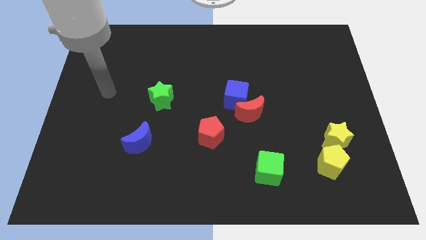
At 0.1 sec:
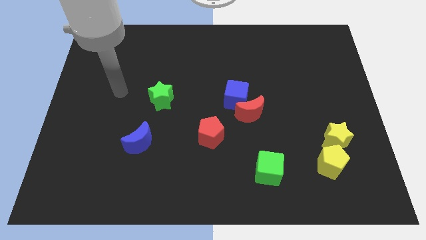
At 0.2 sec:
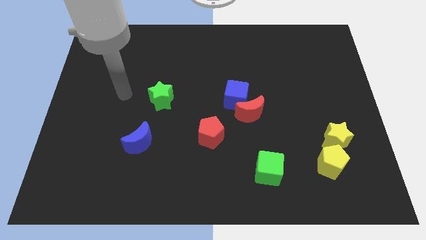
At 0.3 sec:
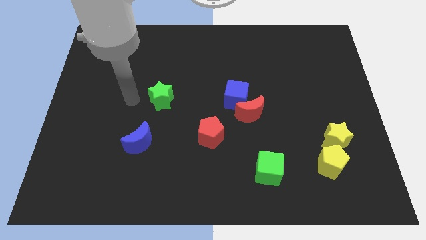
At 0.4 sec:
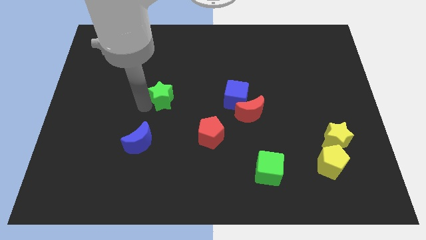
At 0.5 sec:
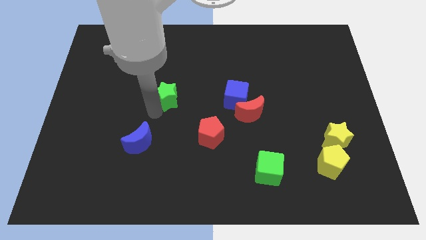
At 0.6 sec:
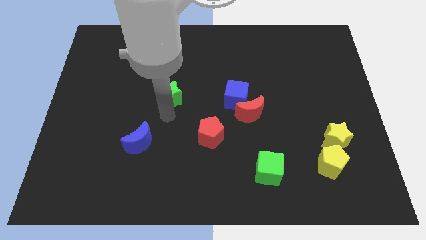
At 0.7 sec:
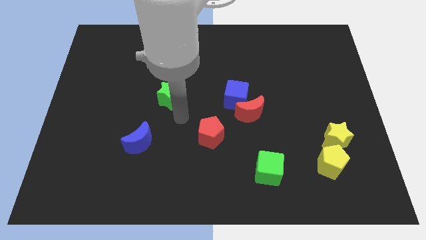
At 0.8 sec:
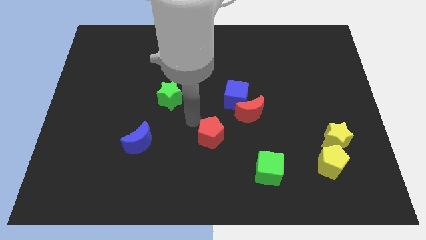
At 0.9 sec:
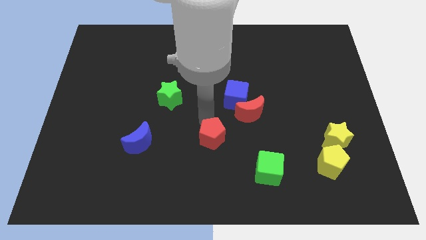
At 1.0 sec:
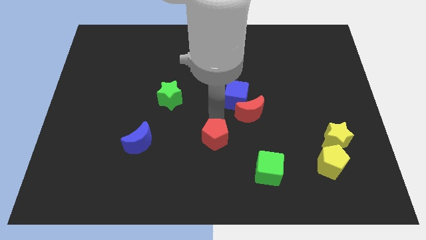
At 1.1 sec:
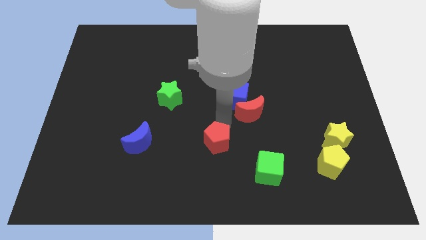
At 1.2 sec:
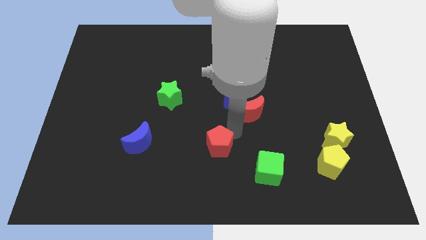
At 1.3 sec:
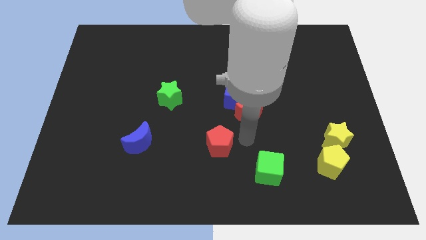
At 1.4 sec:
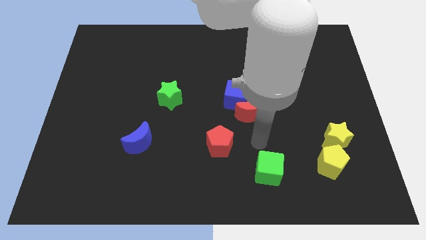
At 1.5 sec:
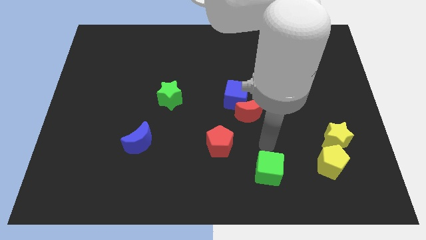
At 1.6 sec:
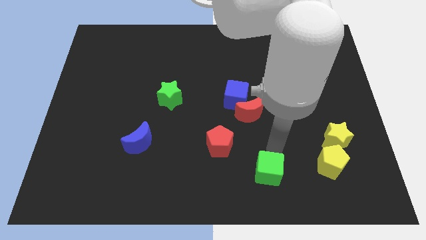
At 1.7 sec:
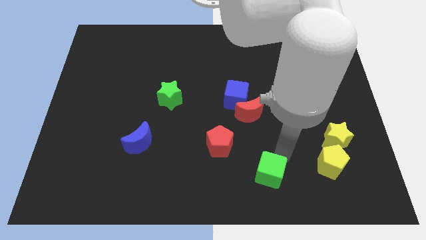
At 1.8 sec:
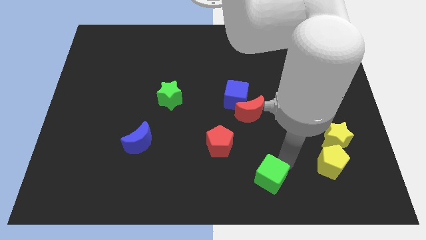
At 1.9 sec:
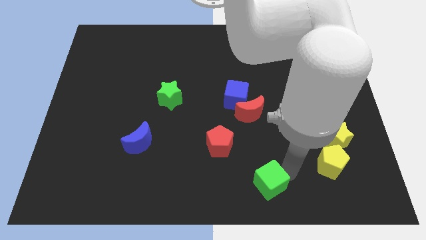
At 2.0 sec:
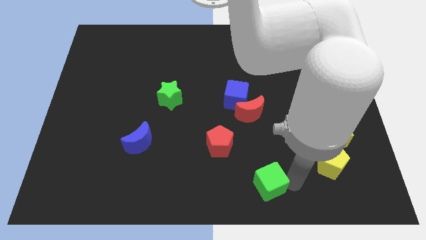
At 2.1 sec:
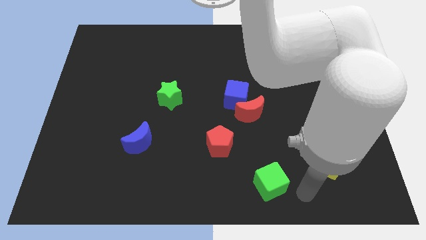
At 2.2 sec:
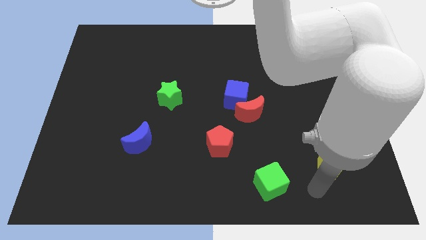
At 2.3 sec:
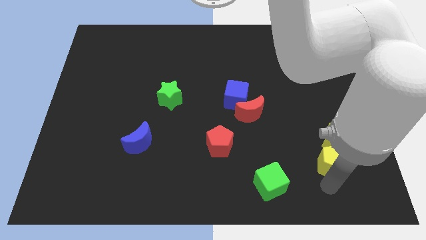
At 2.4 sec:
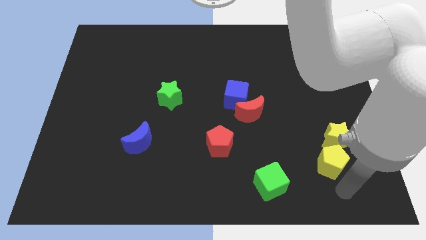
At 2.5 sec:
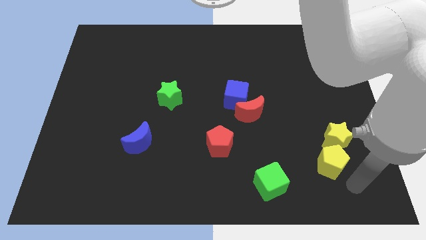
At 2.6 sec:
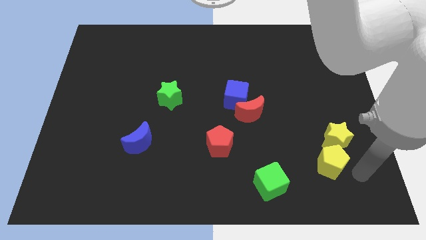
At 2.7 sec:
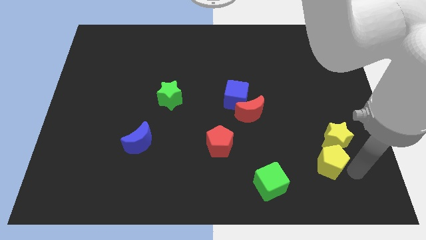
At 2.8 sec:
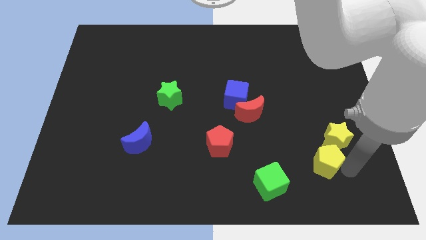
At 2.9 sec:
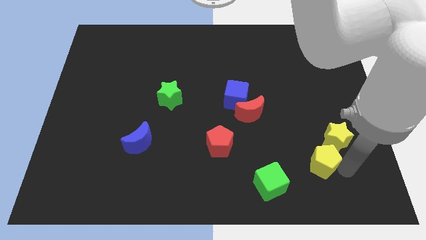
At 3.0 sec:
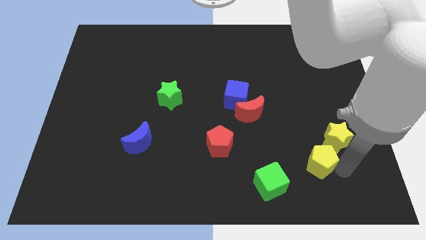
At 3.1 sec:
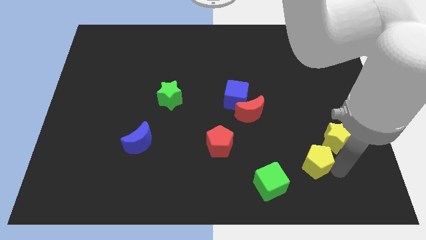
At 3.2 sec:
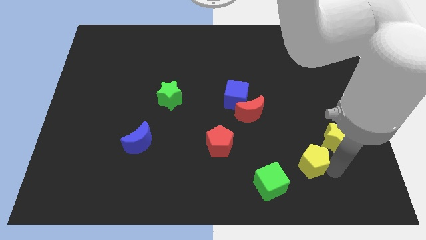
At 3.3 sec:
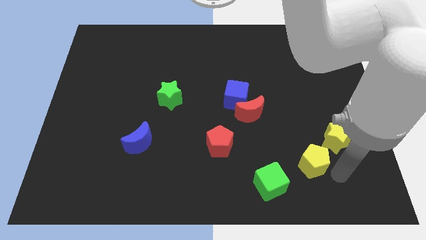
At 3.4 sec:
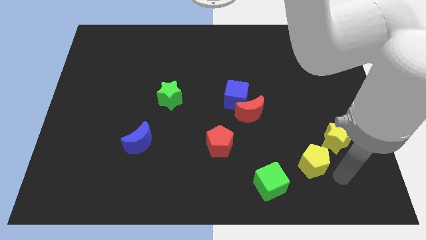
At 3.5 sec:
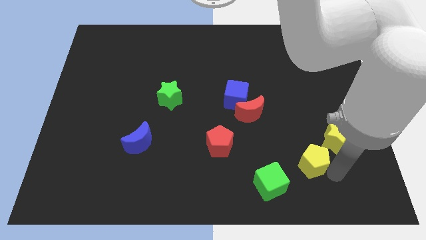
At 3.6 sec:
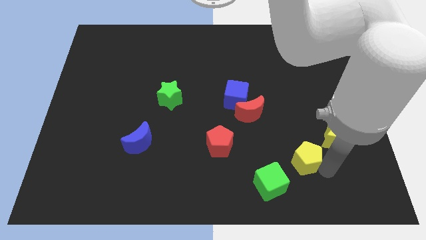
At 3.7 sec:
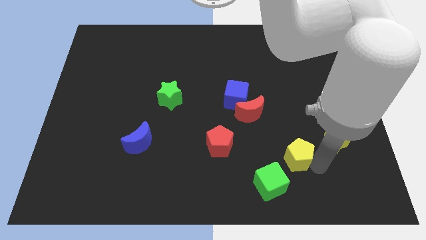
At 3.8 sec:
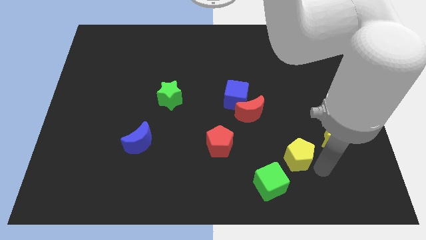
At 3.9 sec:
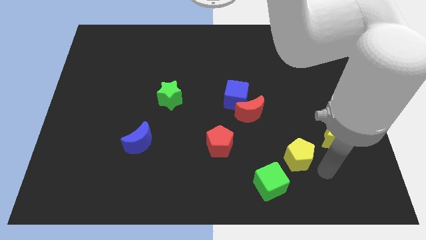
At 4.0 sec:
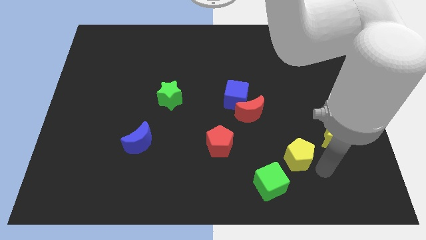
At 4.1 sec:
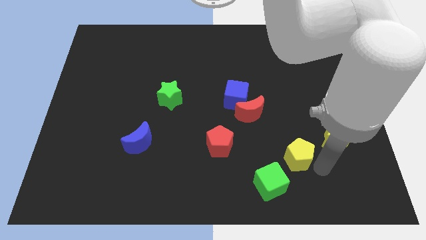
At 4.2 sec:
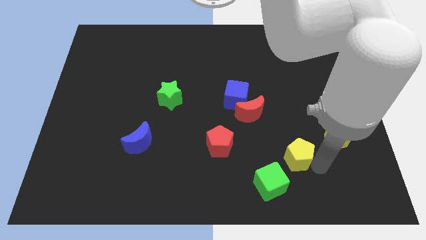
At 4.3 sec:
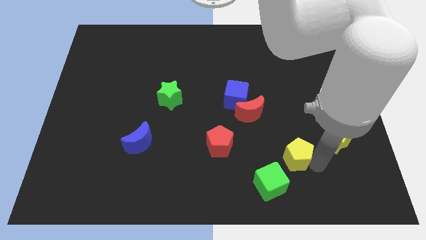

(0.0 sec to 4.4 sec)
slide the yellow pentagon slightly to the left

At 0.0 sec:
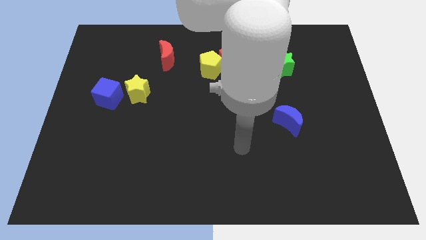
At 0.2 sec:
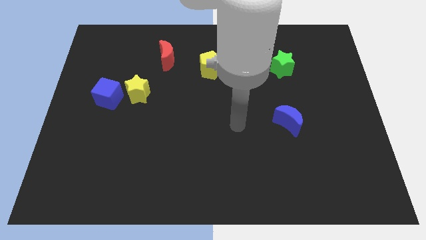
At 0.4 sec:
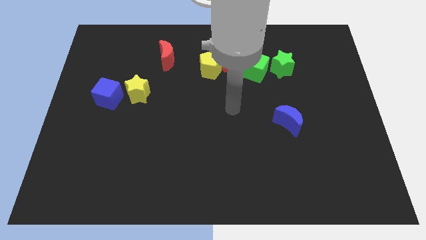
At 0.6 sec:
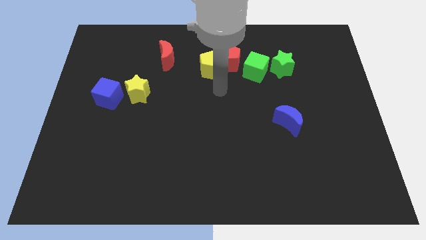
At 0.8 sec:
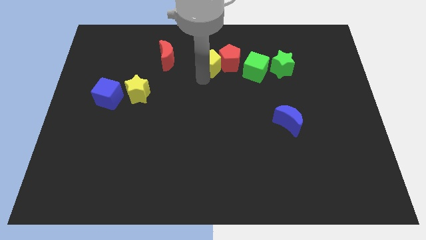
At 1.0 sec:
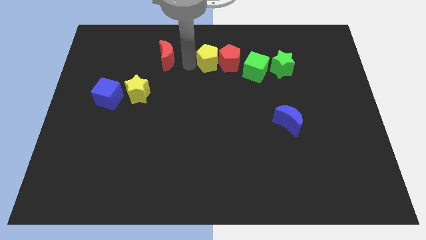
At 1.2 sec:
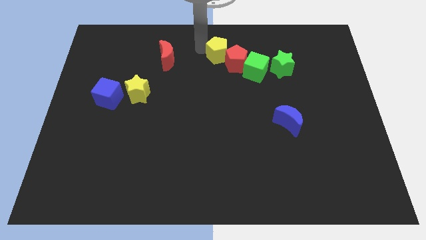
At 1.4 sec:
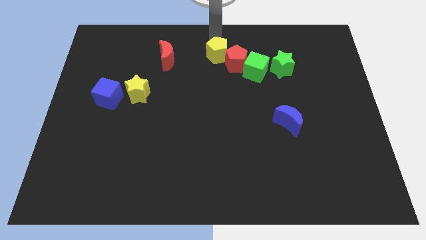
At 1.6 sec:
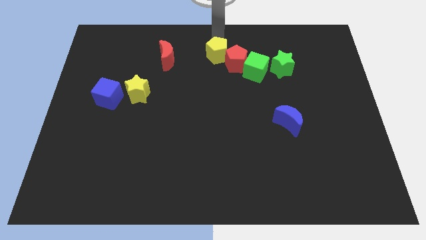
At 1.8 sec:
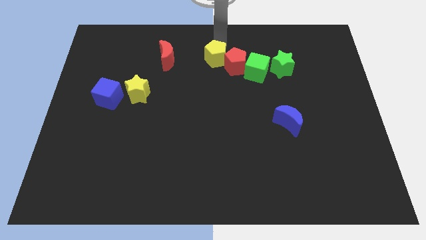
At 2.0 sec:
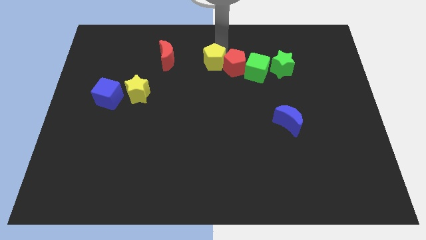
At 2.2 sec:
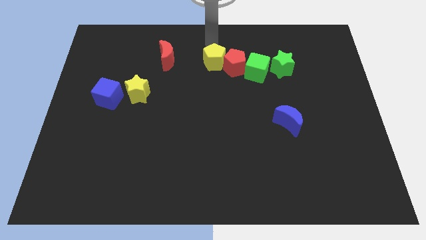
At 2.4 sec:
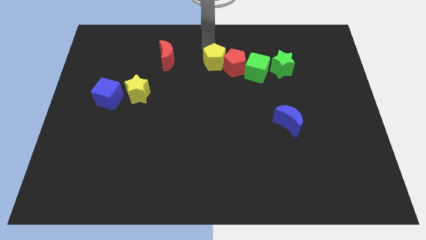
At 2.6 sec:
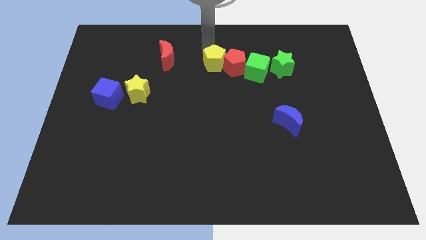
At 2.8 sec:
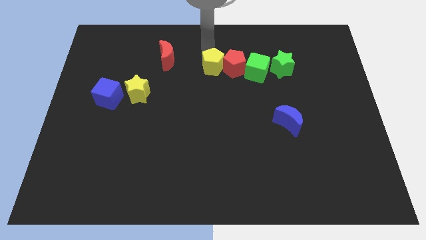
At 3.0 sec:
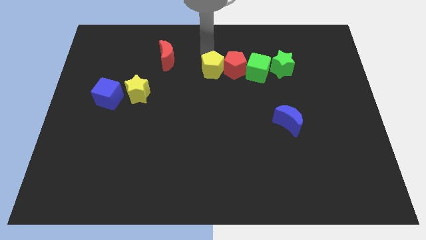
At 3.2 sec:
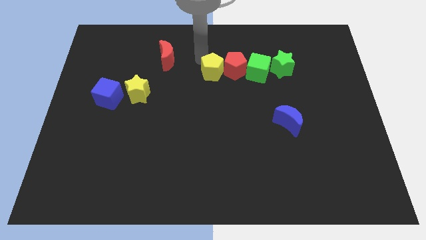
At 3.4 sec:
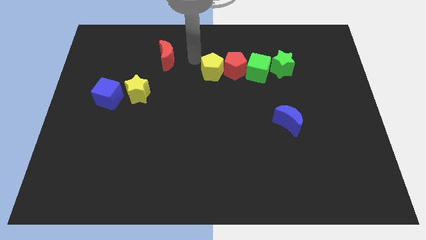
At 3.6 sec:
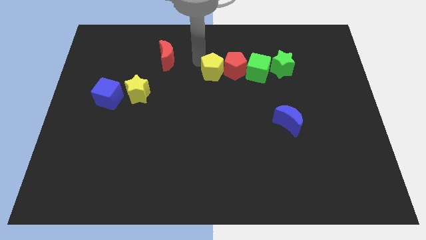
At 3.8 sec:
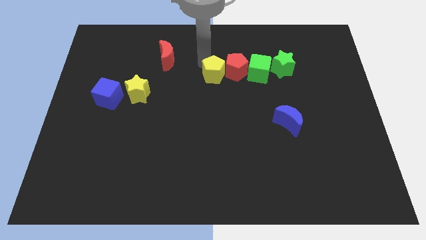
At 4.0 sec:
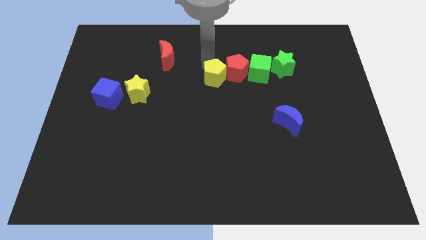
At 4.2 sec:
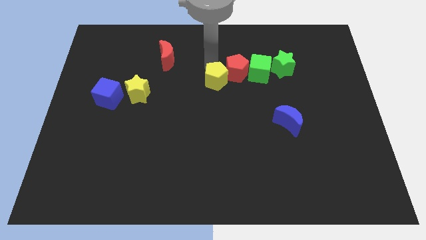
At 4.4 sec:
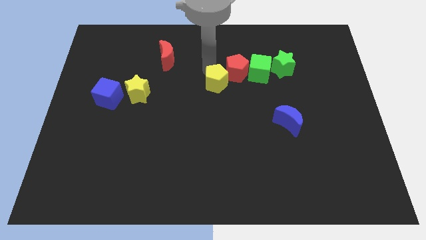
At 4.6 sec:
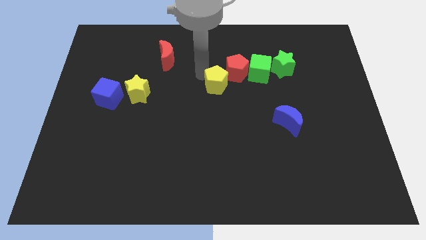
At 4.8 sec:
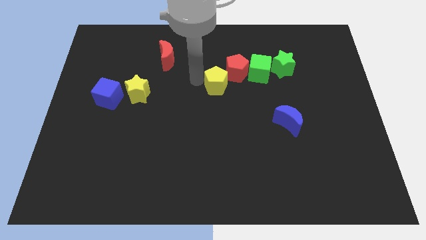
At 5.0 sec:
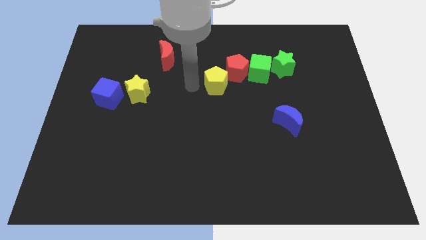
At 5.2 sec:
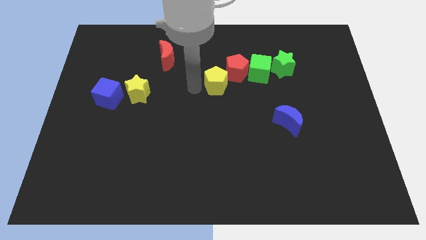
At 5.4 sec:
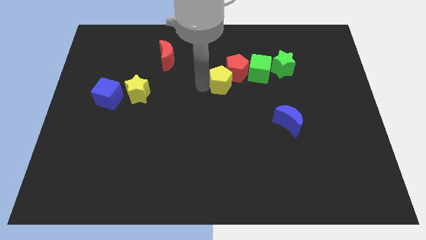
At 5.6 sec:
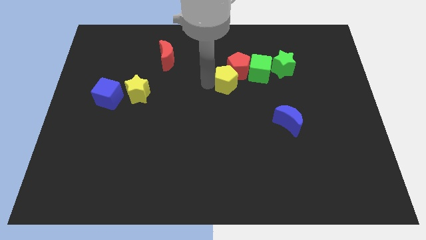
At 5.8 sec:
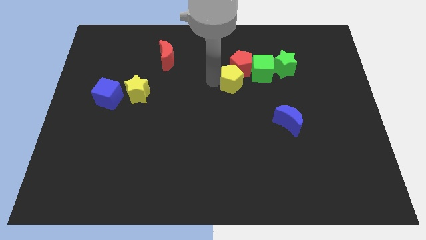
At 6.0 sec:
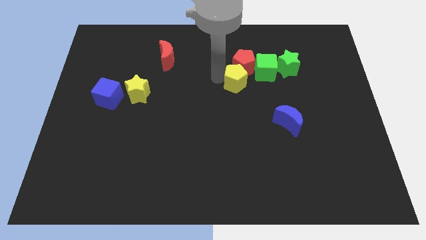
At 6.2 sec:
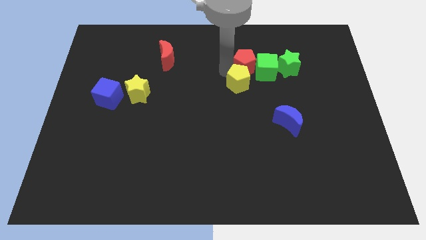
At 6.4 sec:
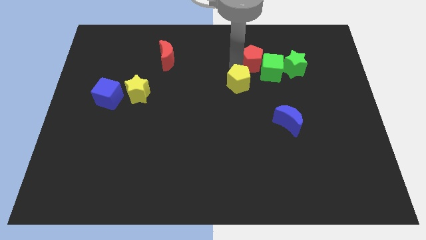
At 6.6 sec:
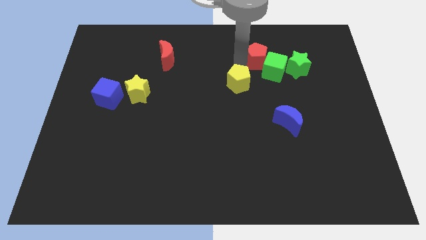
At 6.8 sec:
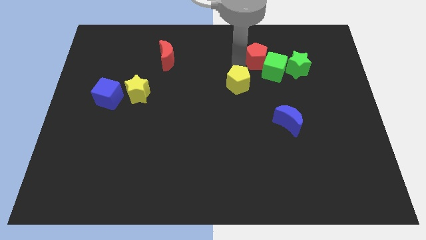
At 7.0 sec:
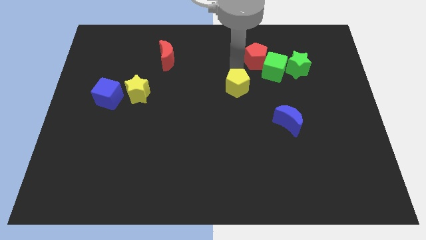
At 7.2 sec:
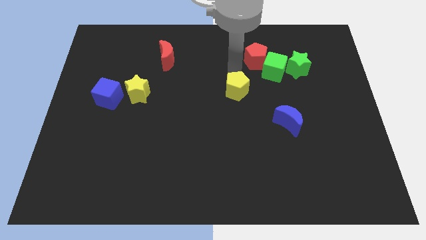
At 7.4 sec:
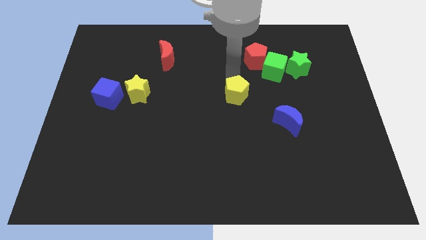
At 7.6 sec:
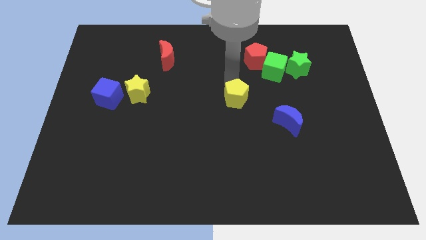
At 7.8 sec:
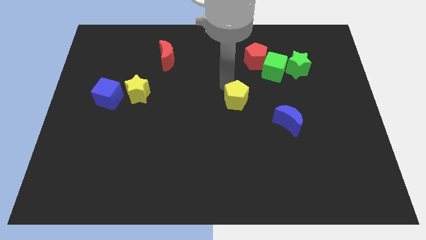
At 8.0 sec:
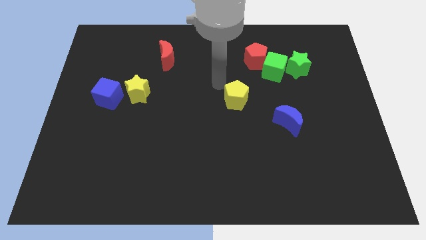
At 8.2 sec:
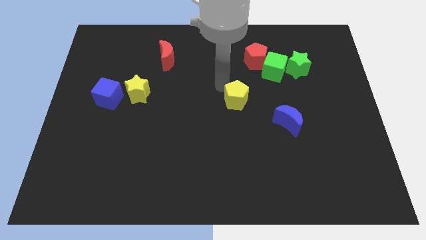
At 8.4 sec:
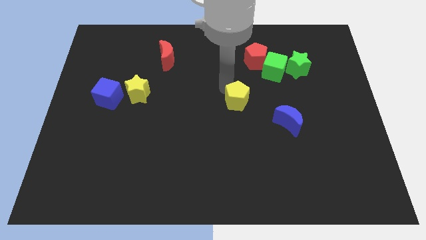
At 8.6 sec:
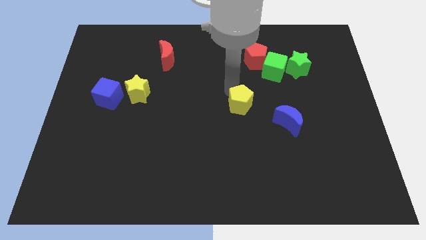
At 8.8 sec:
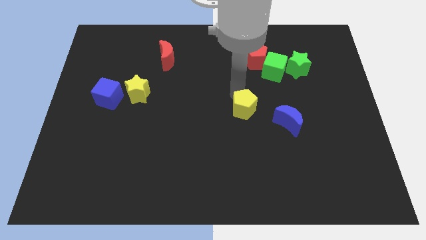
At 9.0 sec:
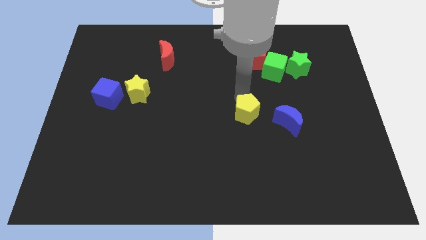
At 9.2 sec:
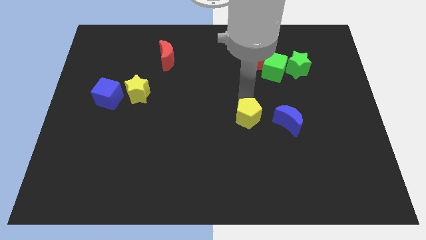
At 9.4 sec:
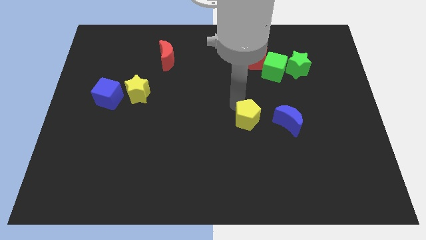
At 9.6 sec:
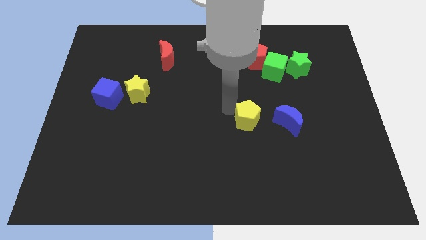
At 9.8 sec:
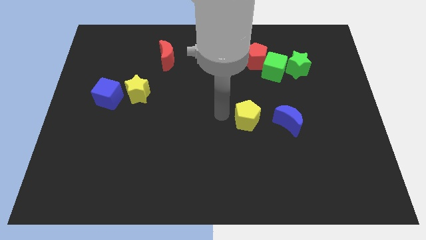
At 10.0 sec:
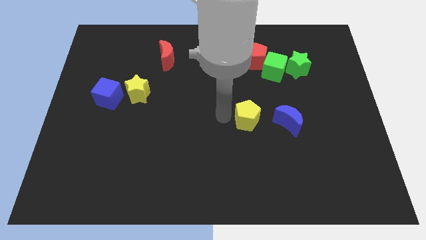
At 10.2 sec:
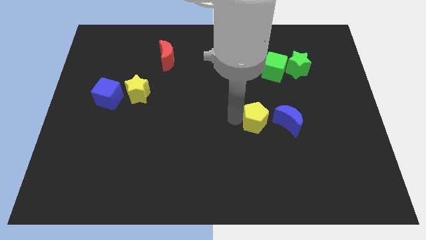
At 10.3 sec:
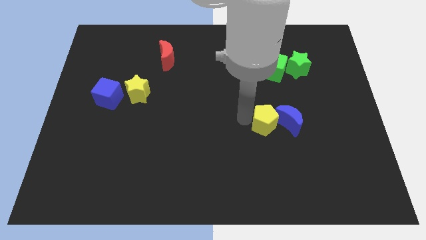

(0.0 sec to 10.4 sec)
slide the yellow pentagon down and right diagonally
